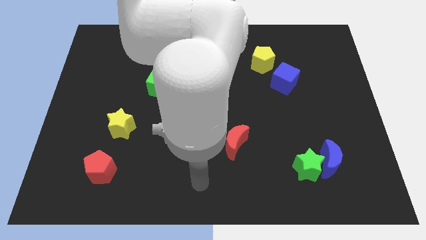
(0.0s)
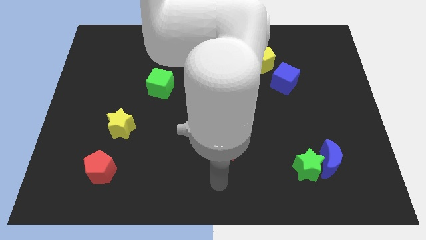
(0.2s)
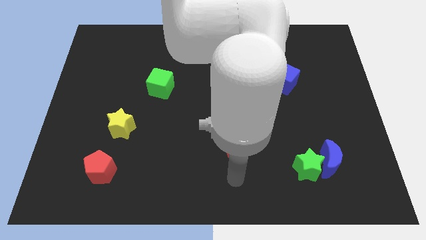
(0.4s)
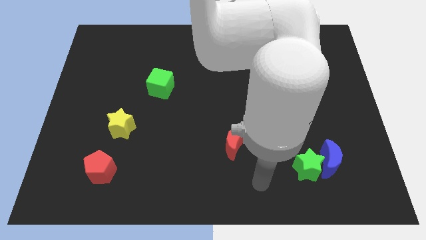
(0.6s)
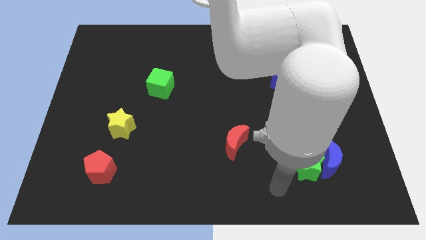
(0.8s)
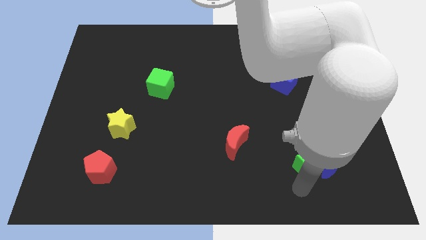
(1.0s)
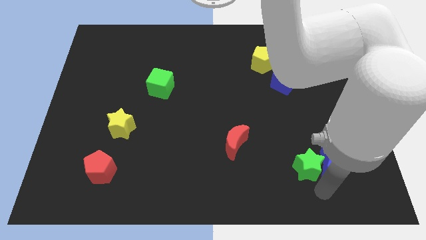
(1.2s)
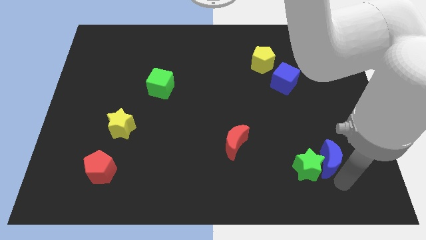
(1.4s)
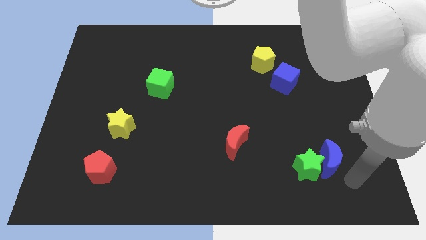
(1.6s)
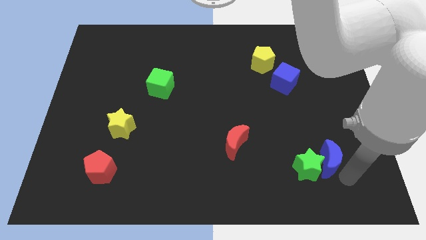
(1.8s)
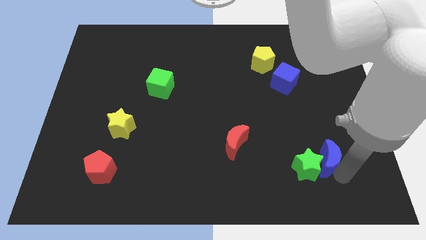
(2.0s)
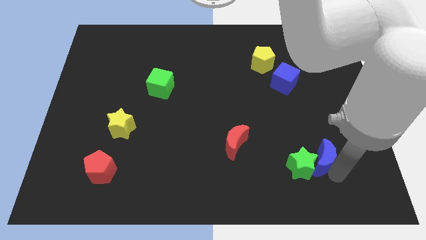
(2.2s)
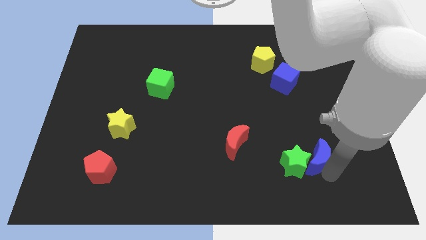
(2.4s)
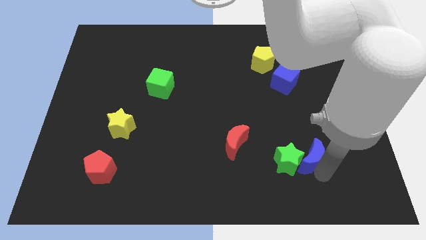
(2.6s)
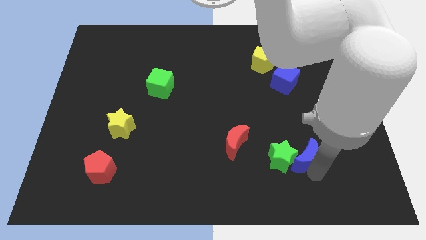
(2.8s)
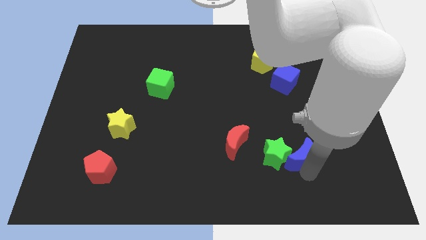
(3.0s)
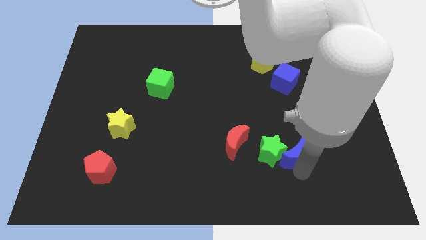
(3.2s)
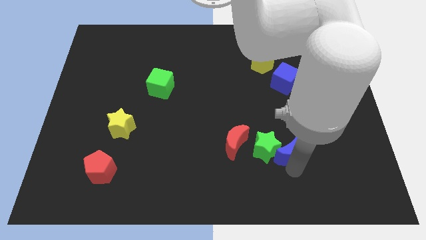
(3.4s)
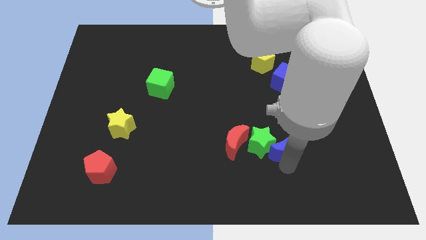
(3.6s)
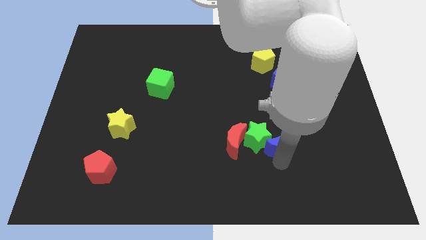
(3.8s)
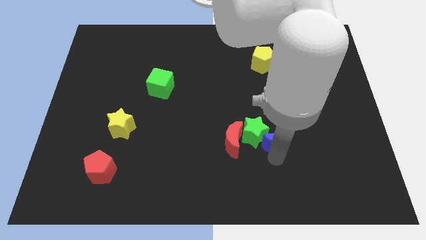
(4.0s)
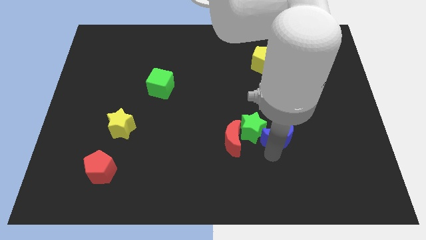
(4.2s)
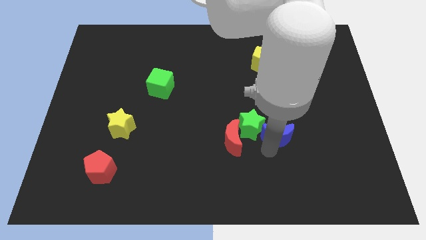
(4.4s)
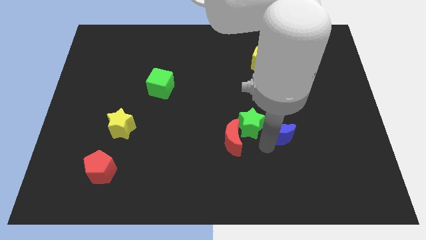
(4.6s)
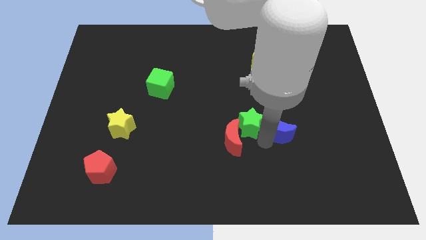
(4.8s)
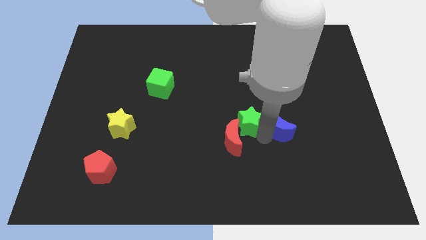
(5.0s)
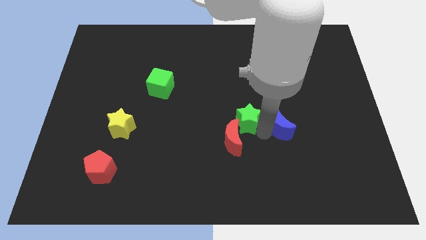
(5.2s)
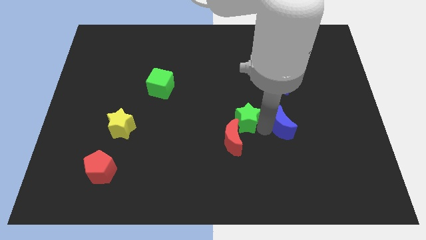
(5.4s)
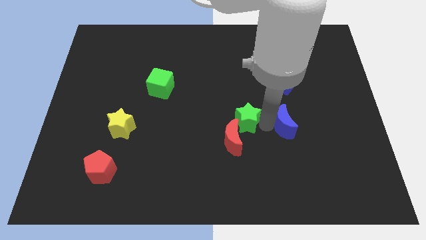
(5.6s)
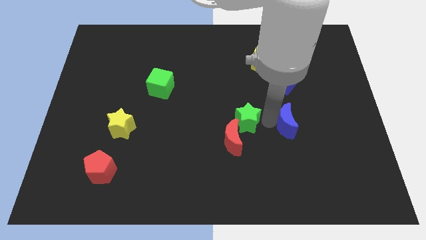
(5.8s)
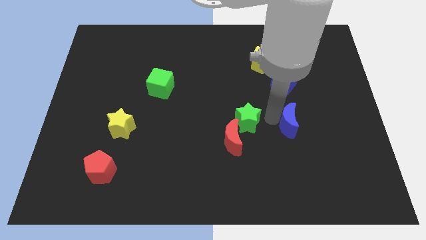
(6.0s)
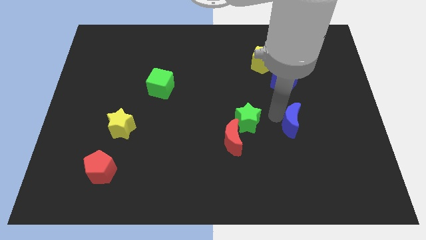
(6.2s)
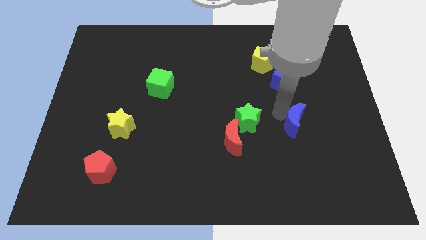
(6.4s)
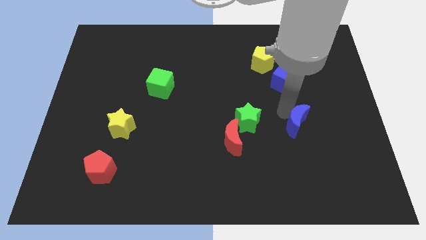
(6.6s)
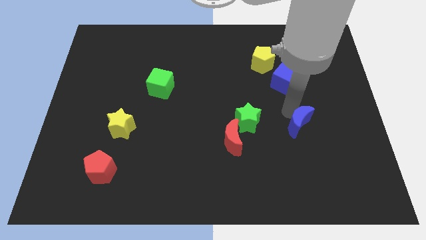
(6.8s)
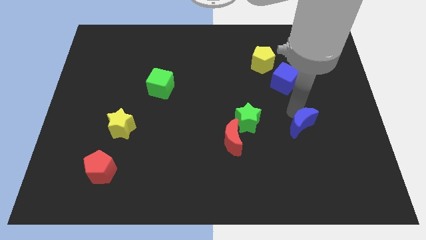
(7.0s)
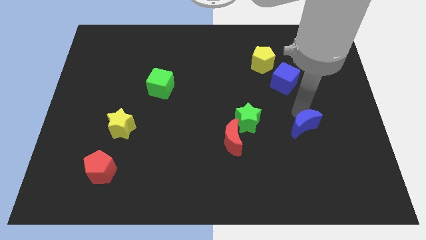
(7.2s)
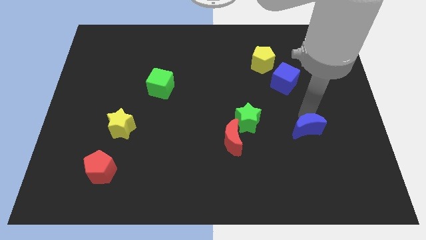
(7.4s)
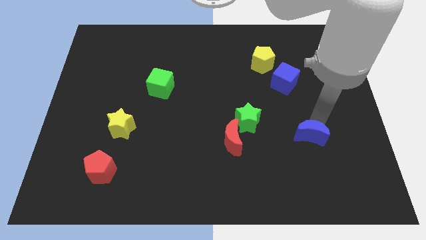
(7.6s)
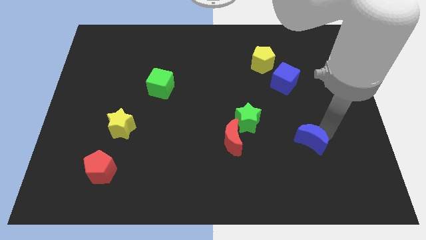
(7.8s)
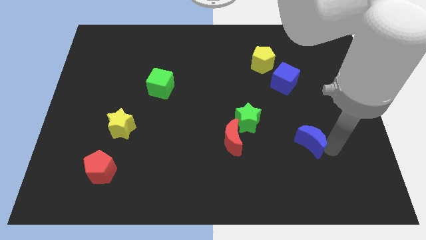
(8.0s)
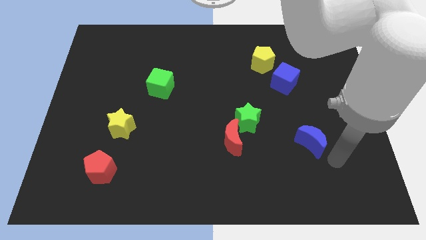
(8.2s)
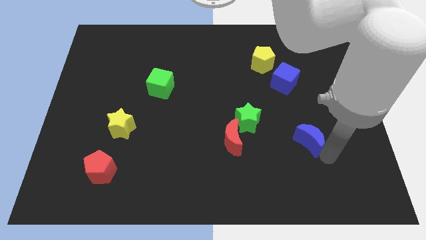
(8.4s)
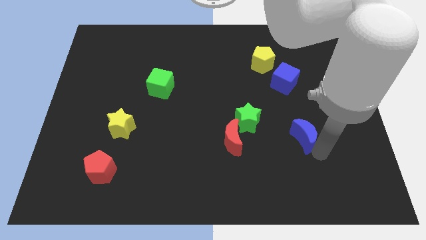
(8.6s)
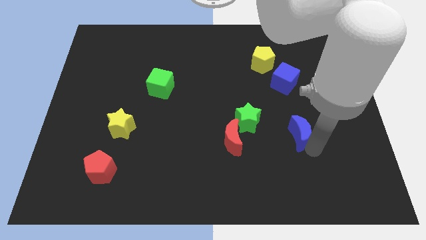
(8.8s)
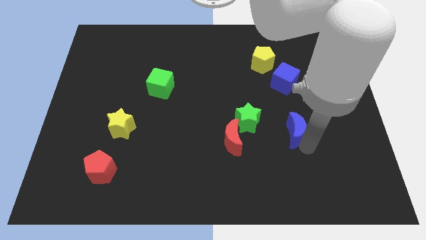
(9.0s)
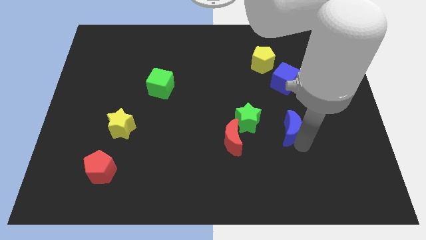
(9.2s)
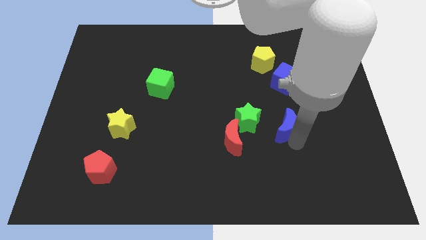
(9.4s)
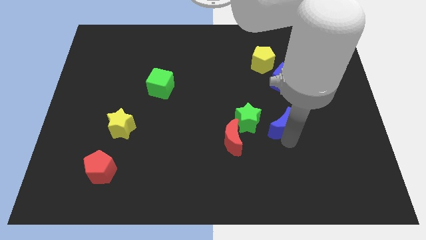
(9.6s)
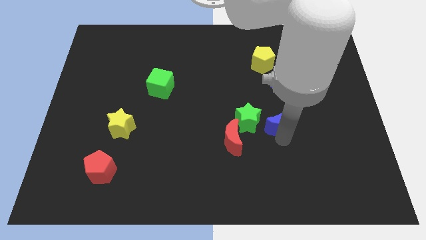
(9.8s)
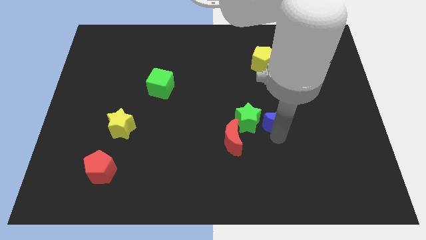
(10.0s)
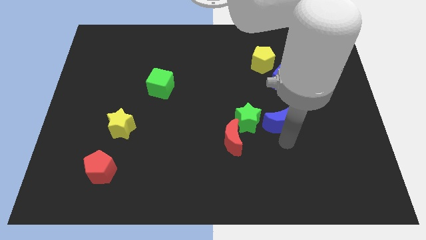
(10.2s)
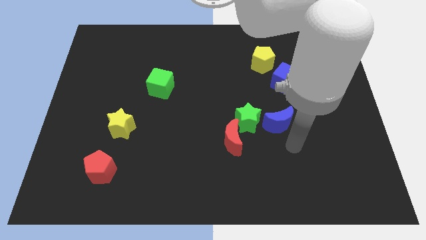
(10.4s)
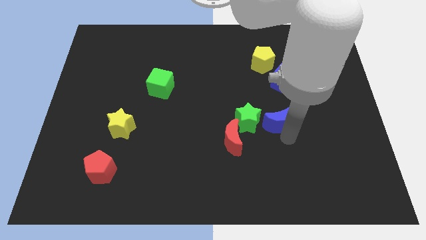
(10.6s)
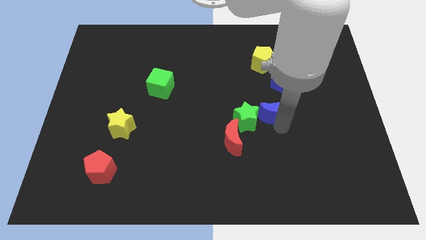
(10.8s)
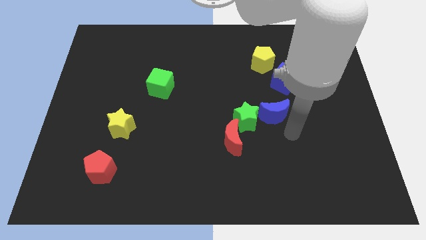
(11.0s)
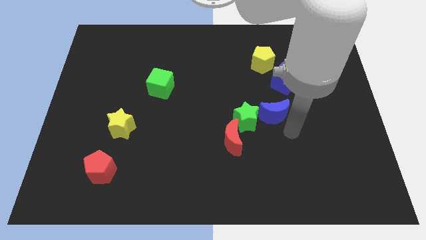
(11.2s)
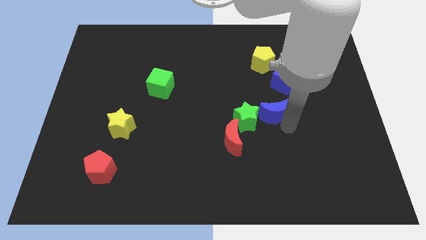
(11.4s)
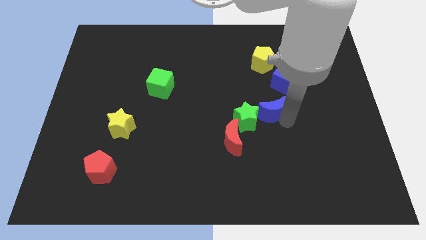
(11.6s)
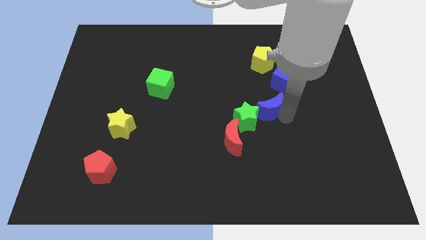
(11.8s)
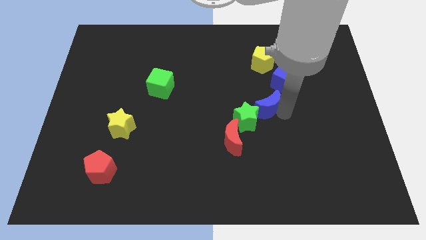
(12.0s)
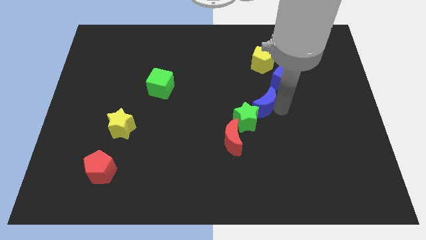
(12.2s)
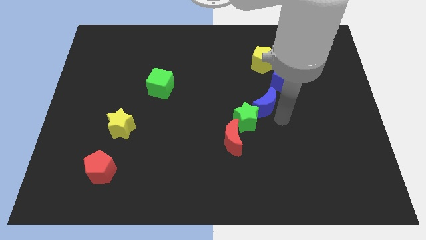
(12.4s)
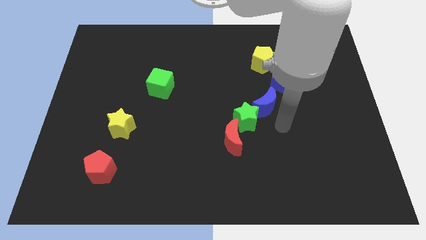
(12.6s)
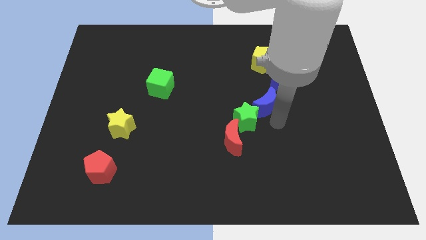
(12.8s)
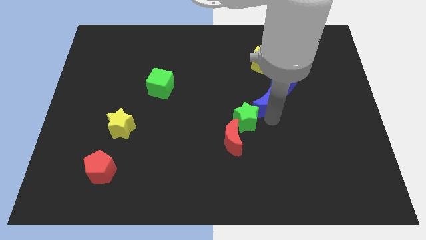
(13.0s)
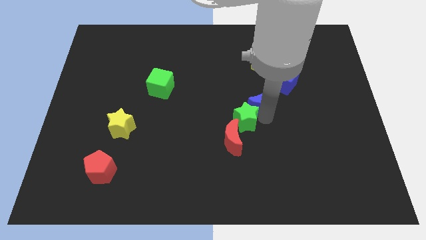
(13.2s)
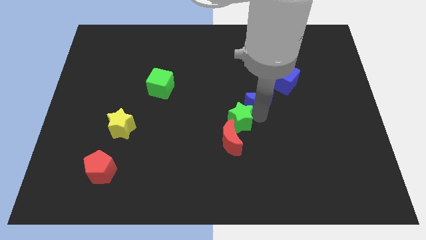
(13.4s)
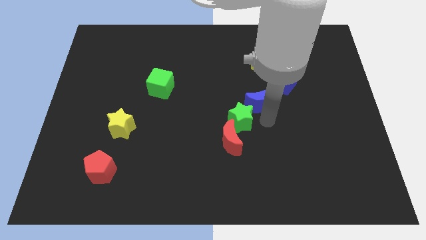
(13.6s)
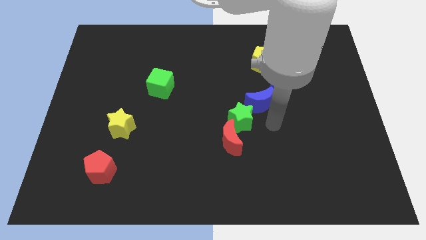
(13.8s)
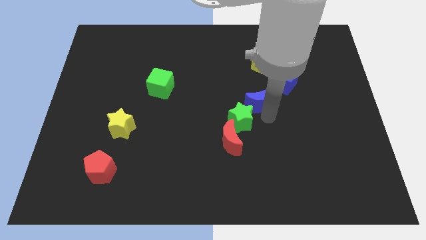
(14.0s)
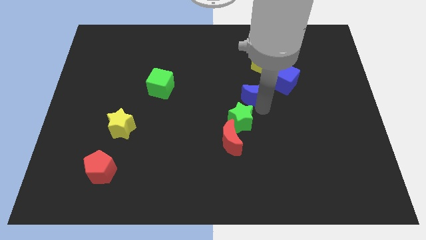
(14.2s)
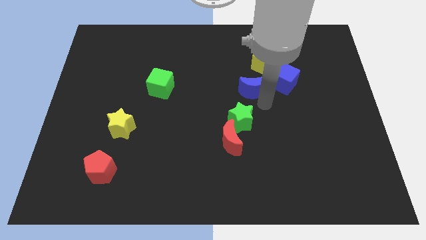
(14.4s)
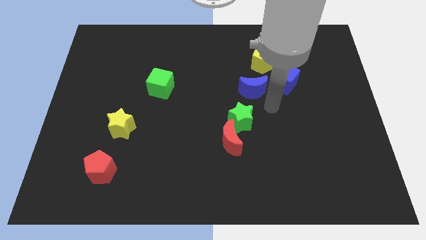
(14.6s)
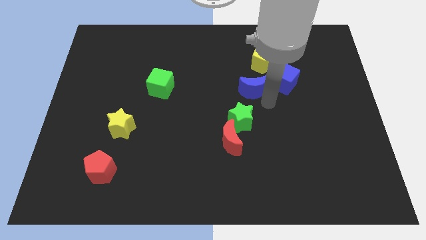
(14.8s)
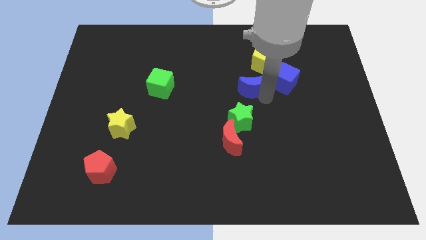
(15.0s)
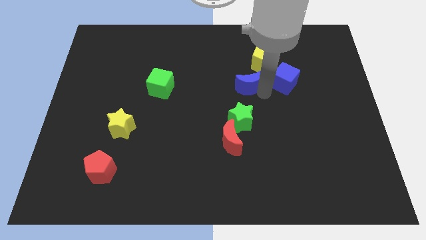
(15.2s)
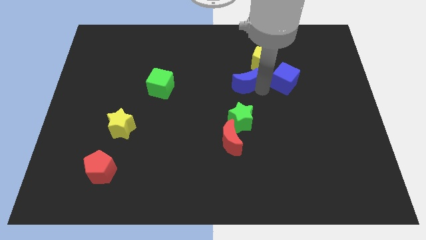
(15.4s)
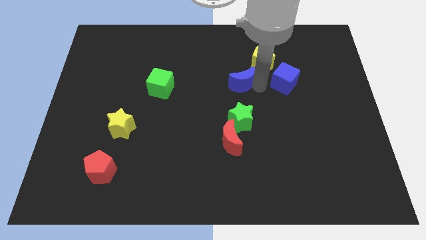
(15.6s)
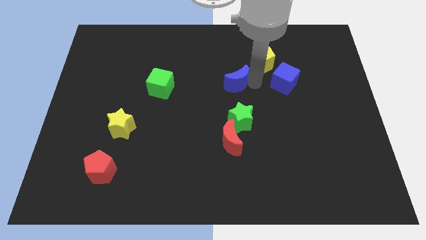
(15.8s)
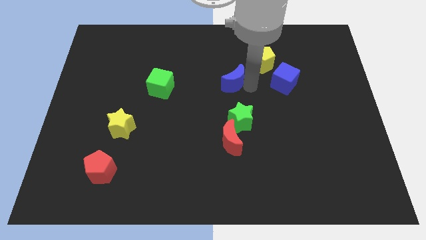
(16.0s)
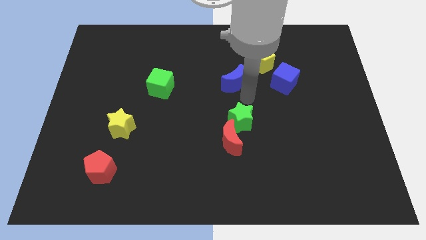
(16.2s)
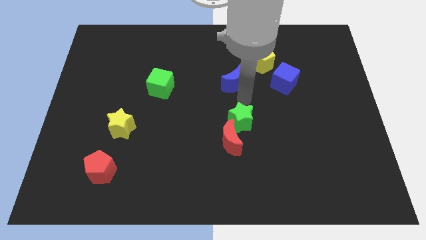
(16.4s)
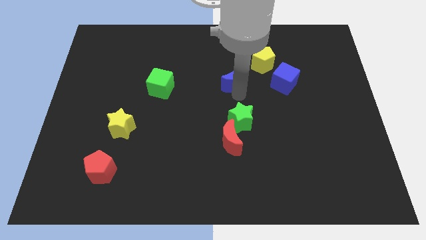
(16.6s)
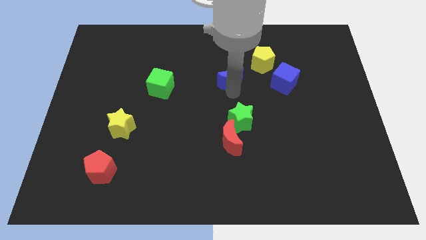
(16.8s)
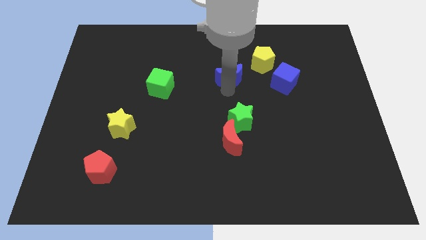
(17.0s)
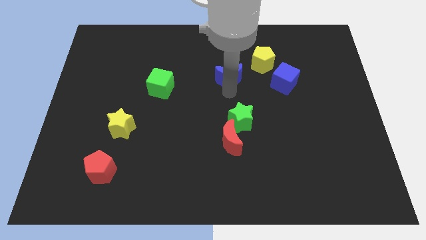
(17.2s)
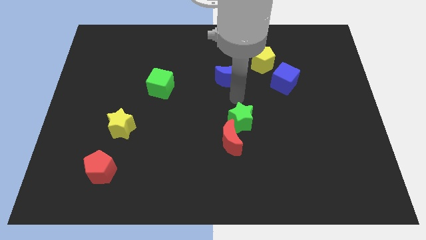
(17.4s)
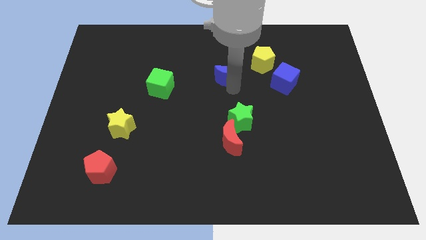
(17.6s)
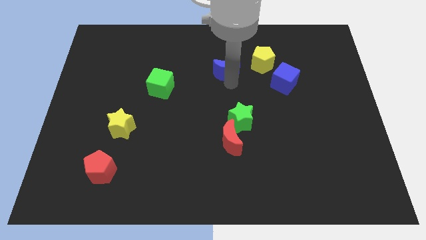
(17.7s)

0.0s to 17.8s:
slide the blue moon to the left of the yellow pentagon
